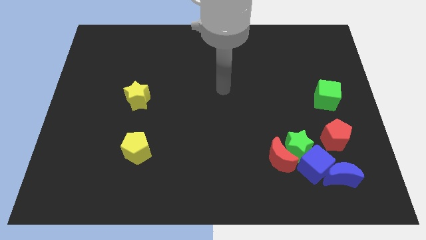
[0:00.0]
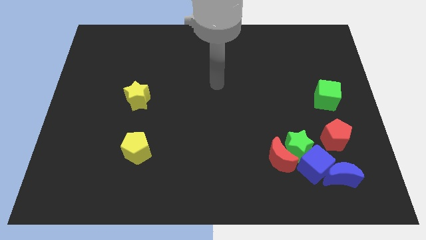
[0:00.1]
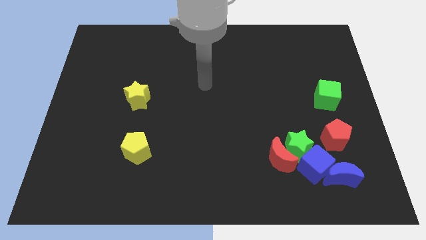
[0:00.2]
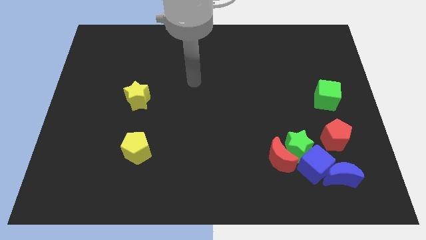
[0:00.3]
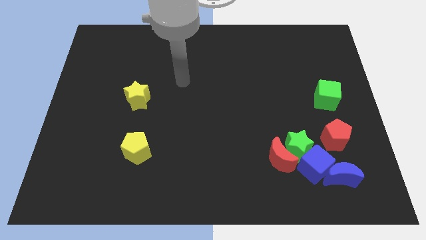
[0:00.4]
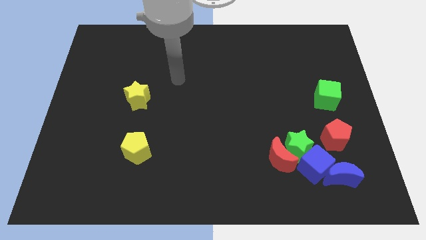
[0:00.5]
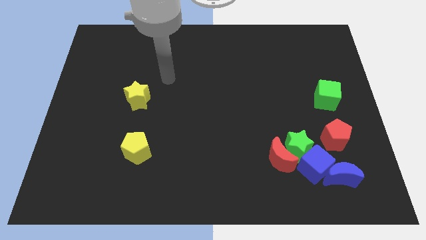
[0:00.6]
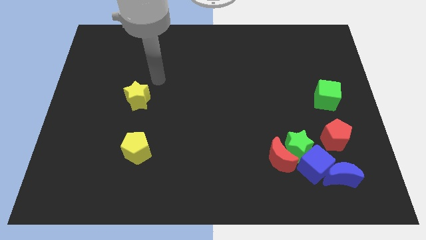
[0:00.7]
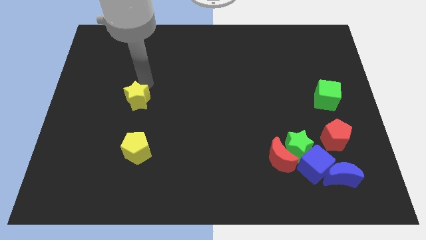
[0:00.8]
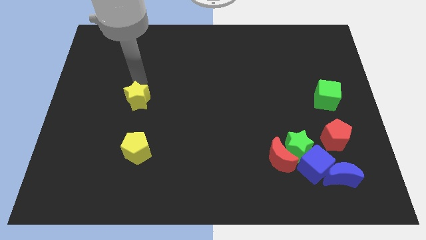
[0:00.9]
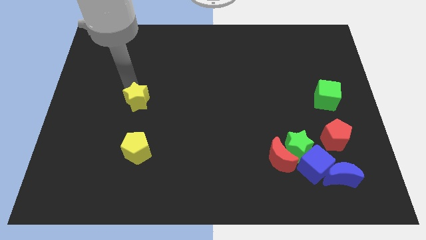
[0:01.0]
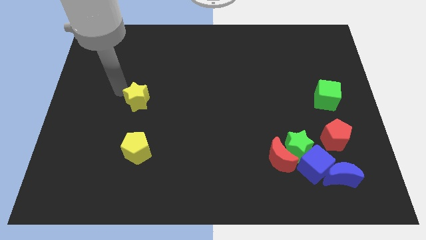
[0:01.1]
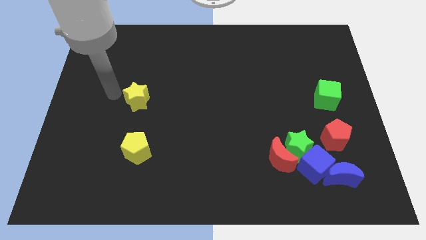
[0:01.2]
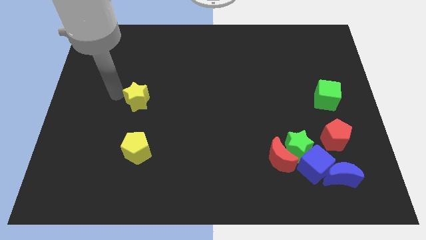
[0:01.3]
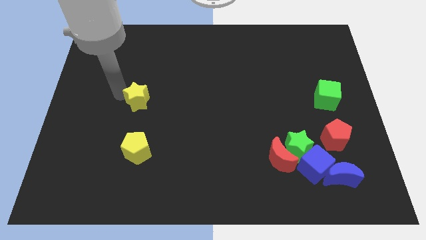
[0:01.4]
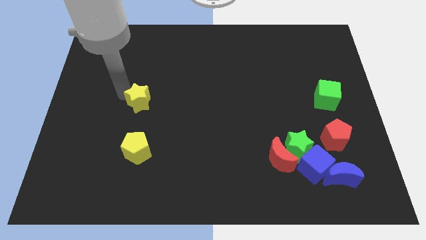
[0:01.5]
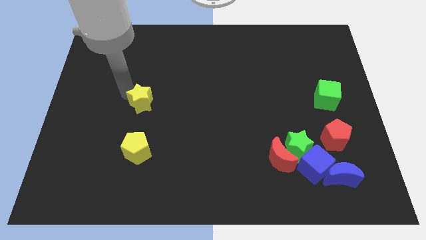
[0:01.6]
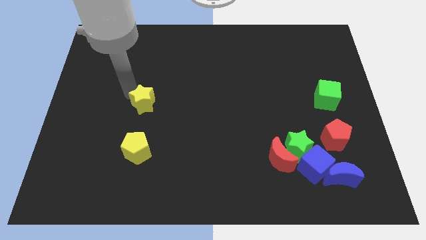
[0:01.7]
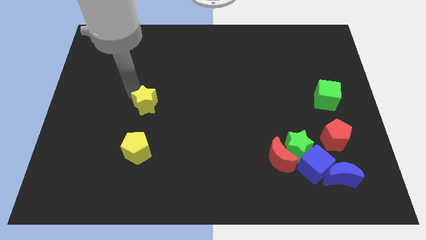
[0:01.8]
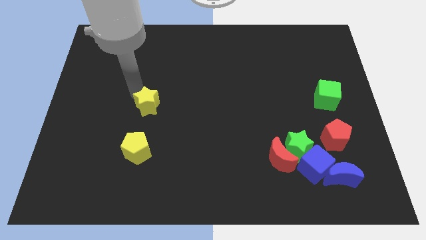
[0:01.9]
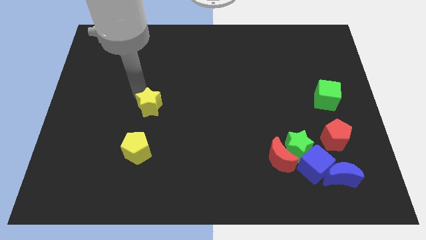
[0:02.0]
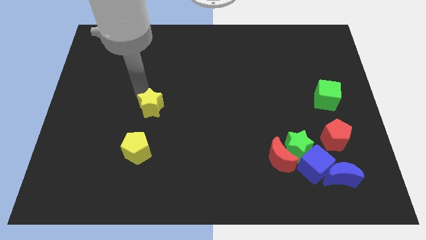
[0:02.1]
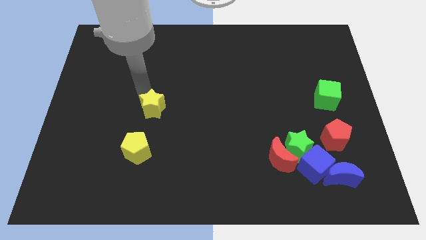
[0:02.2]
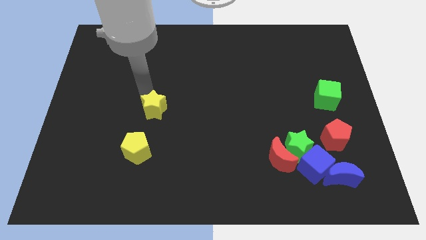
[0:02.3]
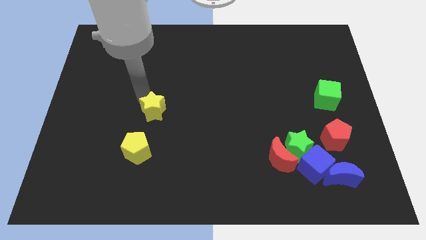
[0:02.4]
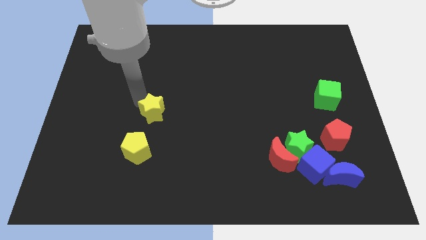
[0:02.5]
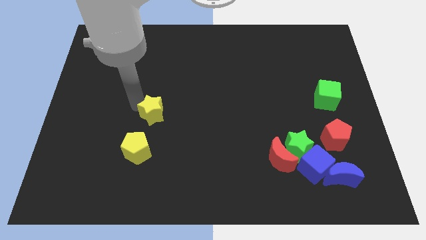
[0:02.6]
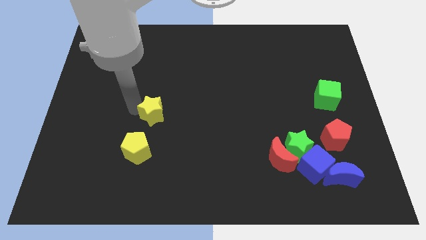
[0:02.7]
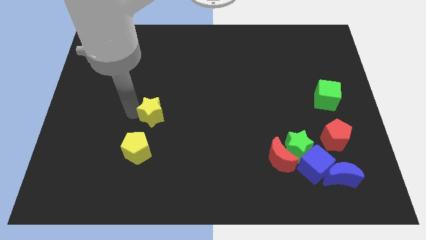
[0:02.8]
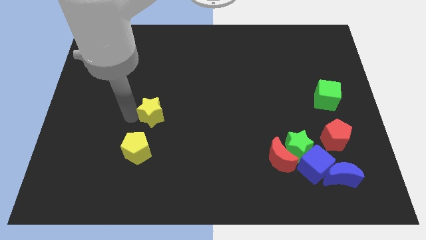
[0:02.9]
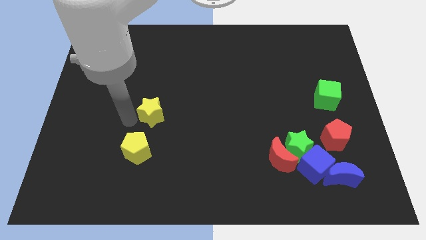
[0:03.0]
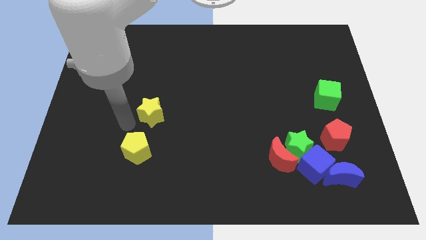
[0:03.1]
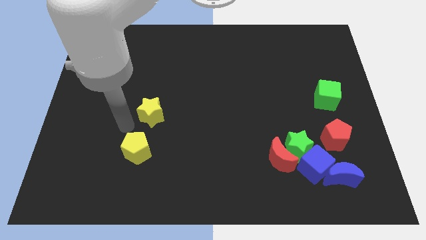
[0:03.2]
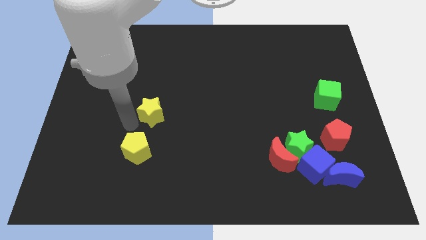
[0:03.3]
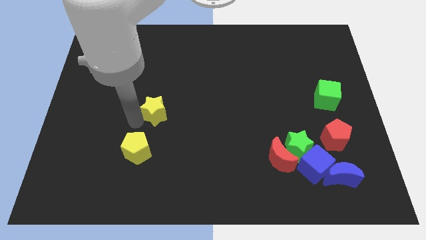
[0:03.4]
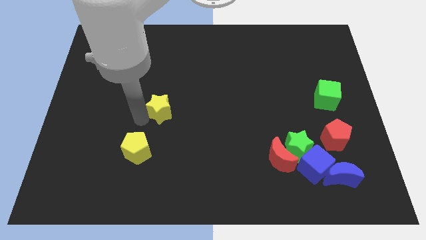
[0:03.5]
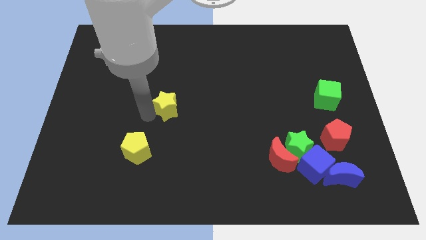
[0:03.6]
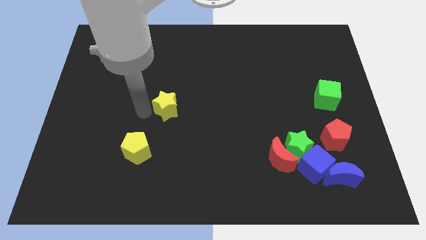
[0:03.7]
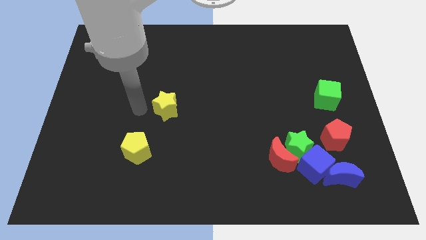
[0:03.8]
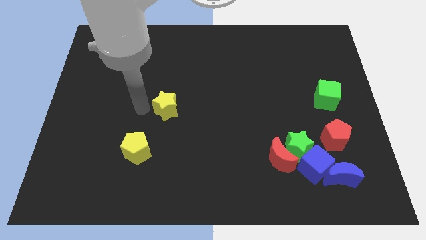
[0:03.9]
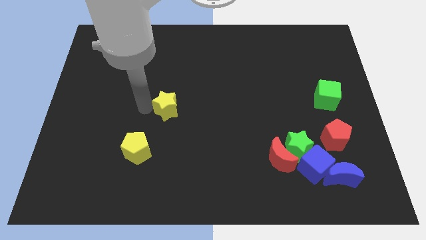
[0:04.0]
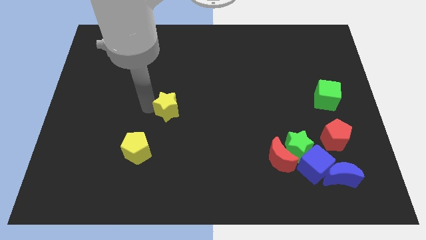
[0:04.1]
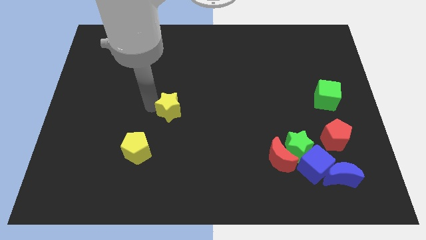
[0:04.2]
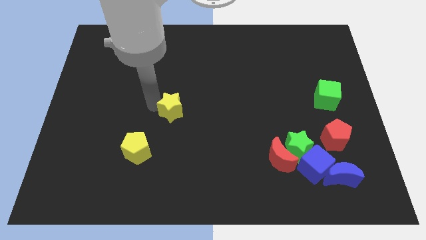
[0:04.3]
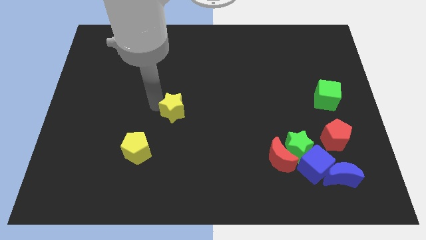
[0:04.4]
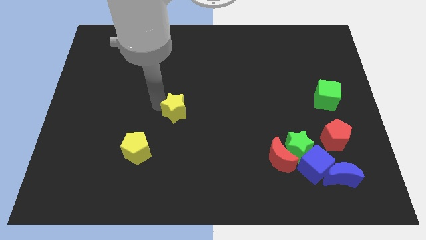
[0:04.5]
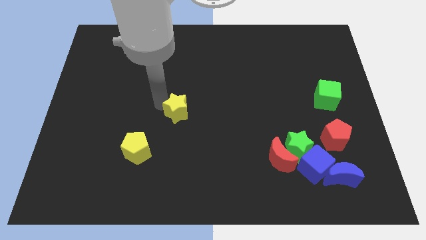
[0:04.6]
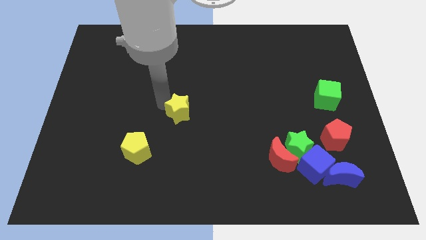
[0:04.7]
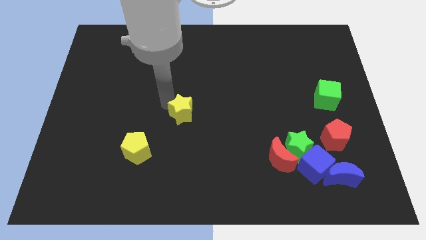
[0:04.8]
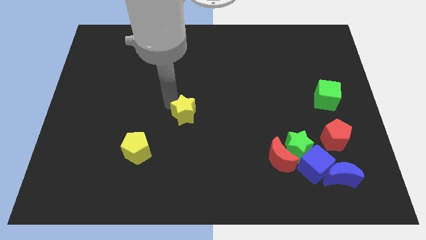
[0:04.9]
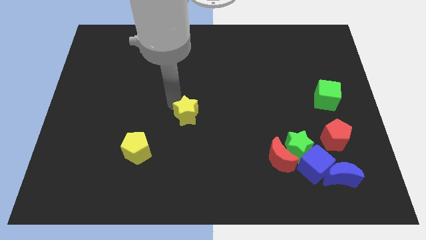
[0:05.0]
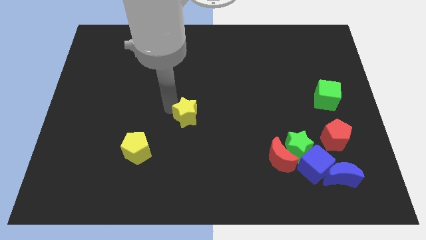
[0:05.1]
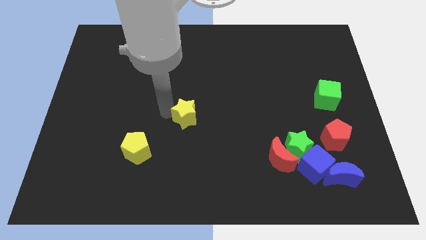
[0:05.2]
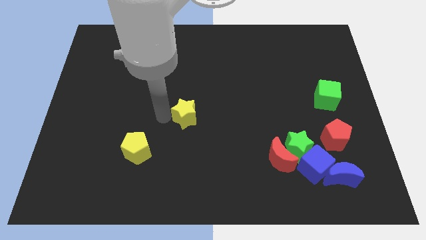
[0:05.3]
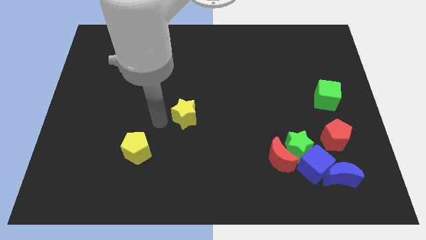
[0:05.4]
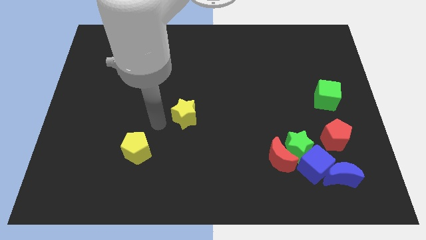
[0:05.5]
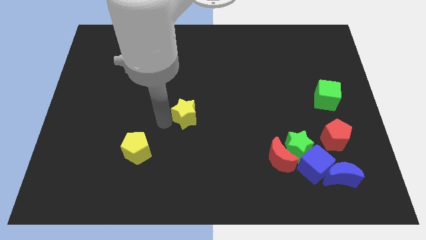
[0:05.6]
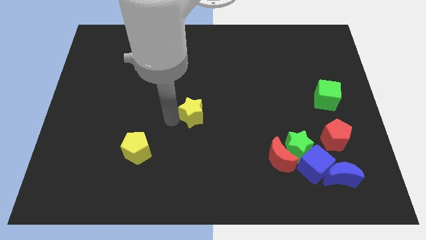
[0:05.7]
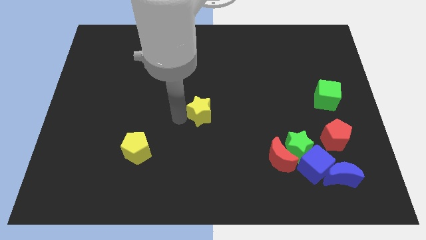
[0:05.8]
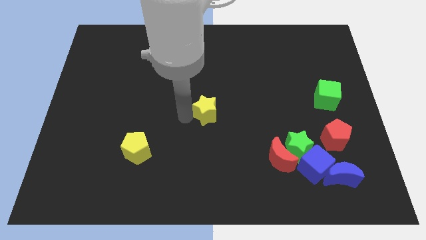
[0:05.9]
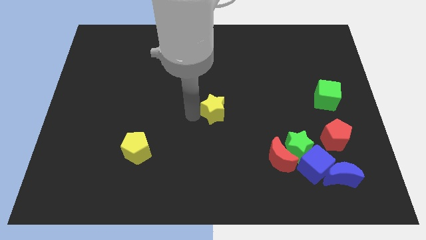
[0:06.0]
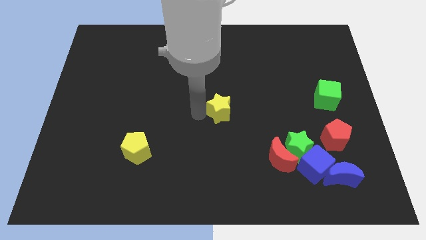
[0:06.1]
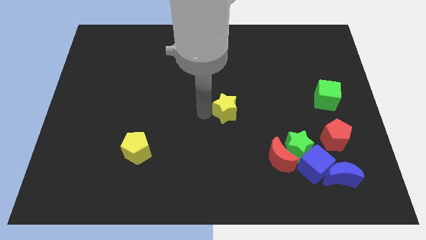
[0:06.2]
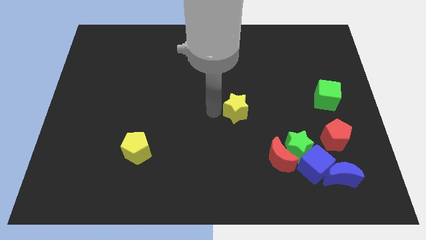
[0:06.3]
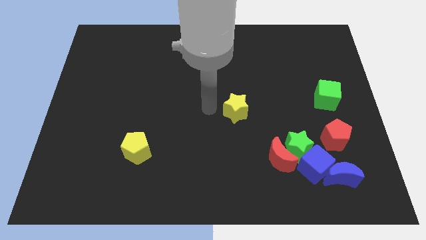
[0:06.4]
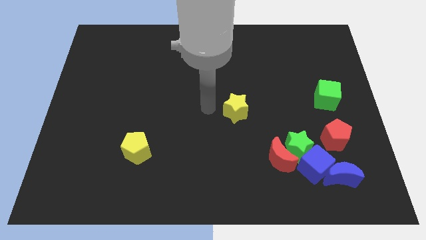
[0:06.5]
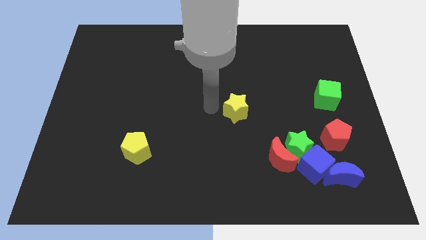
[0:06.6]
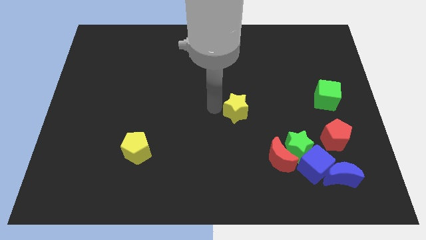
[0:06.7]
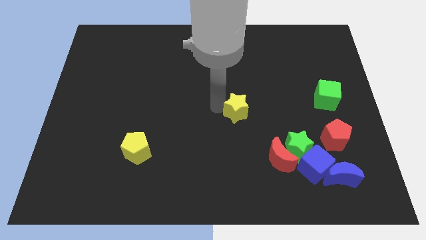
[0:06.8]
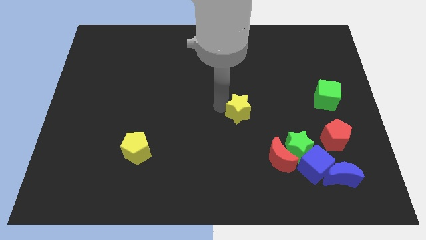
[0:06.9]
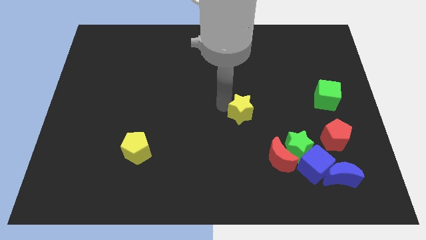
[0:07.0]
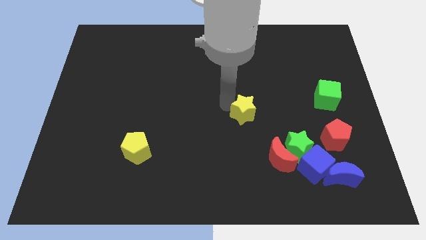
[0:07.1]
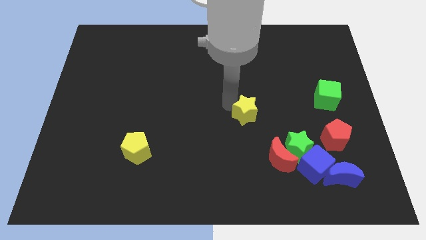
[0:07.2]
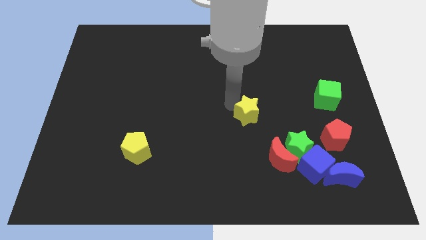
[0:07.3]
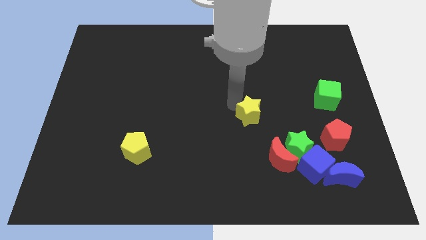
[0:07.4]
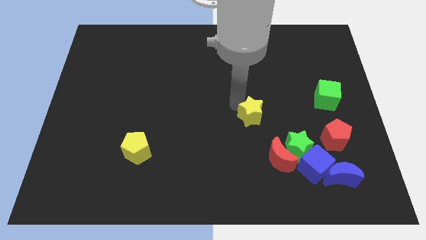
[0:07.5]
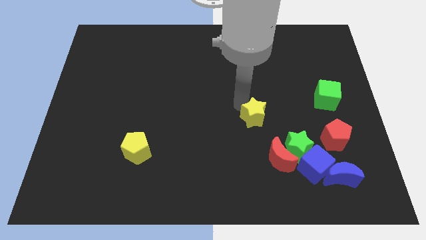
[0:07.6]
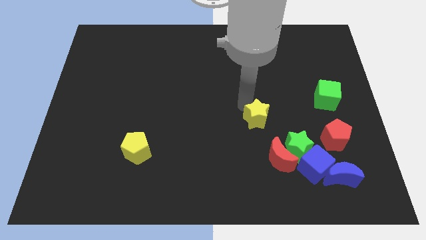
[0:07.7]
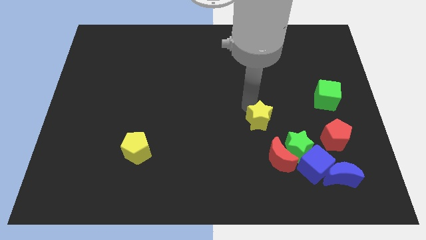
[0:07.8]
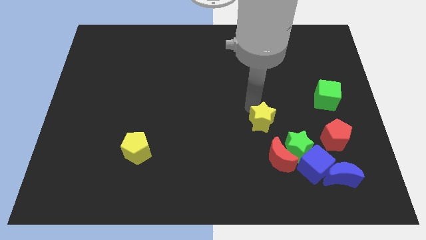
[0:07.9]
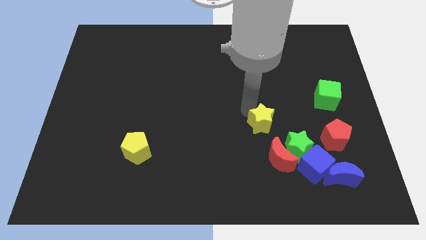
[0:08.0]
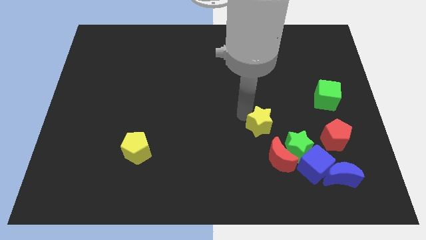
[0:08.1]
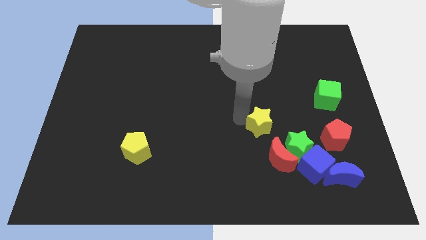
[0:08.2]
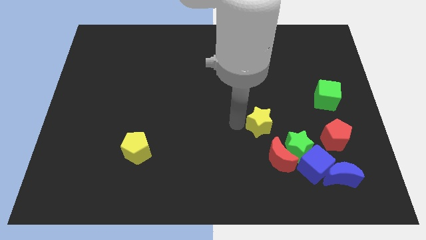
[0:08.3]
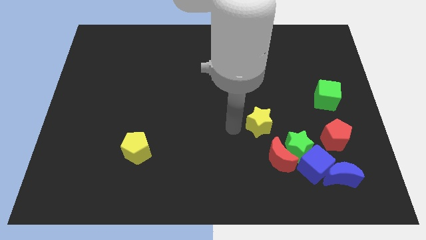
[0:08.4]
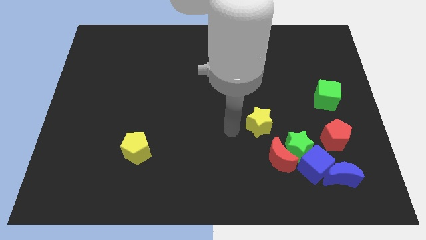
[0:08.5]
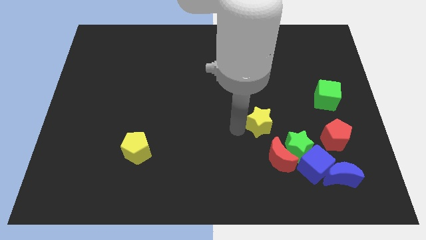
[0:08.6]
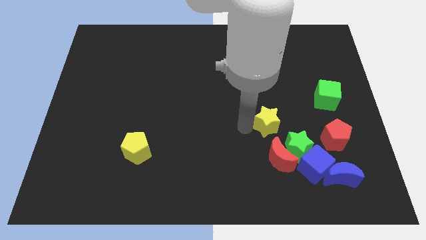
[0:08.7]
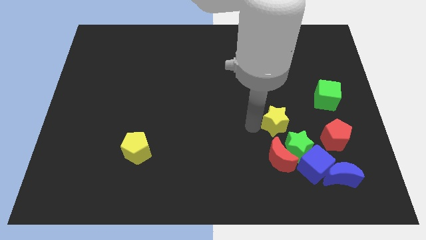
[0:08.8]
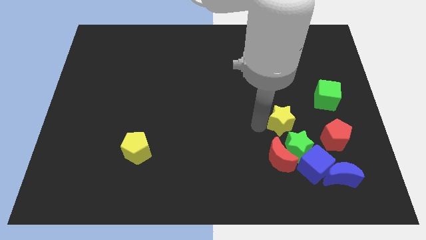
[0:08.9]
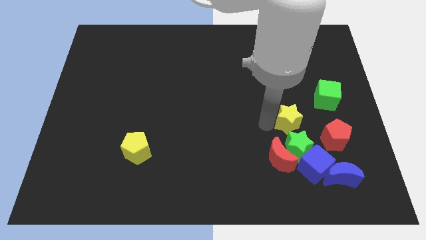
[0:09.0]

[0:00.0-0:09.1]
put the yellow star diagonally up and to the left of the red pentagon
